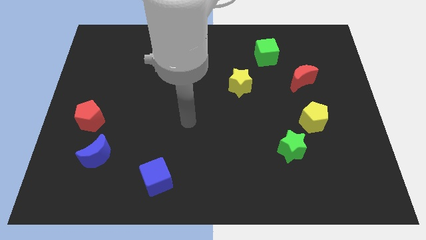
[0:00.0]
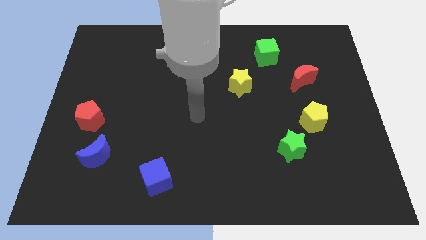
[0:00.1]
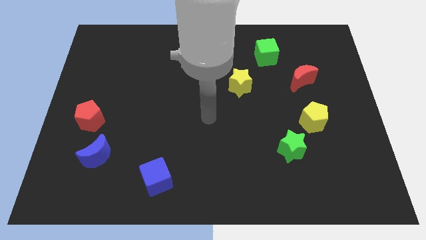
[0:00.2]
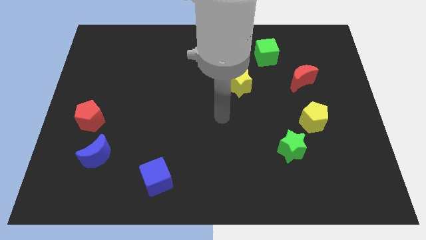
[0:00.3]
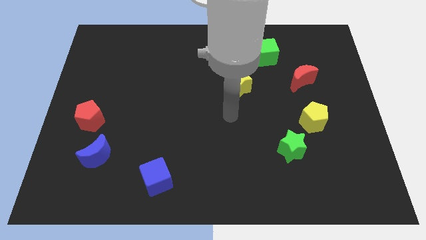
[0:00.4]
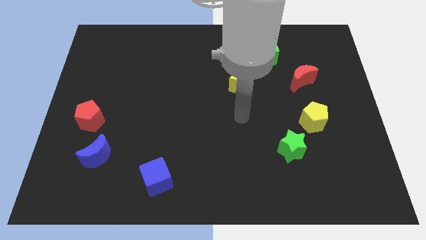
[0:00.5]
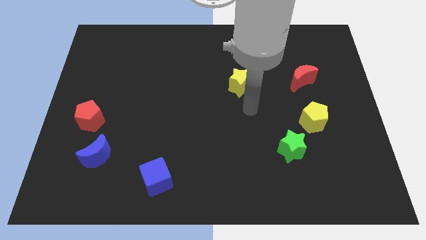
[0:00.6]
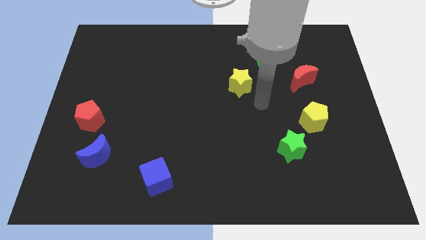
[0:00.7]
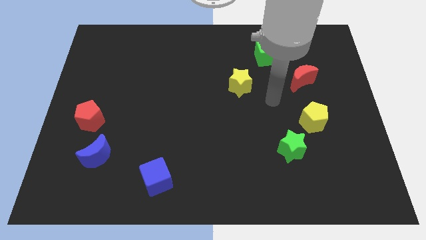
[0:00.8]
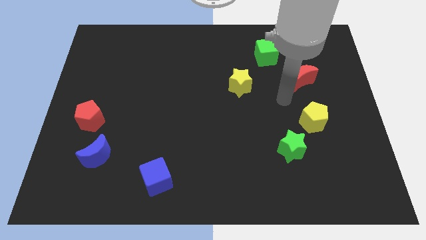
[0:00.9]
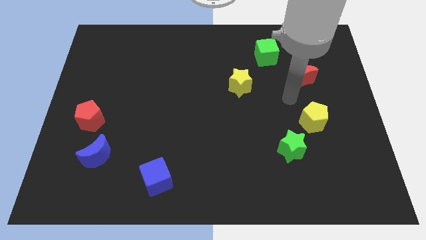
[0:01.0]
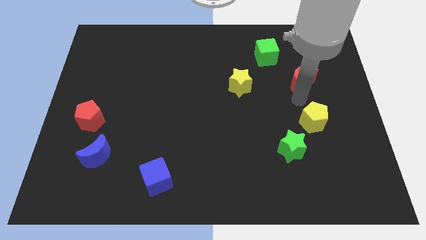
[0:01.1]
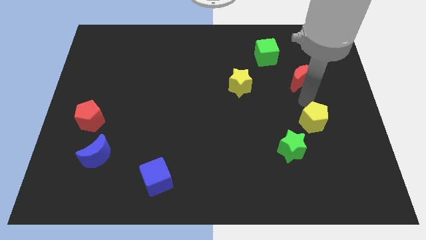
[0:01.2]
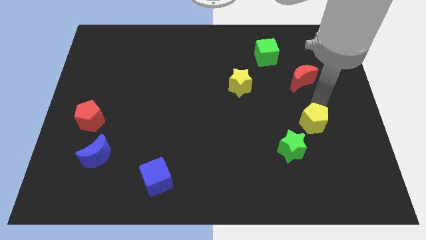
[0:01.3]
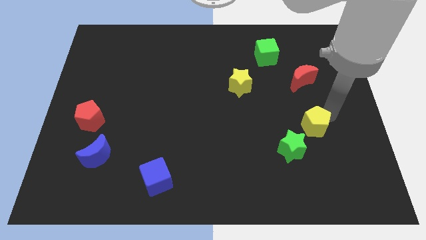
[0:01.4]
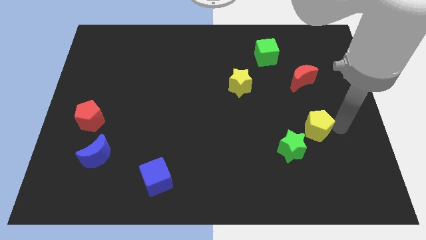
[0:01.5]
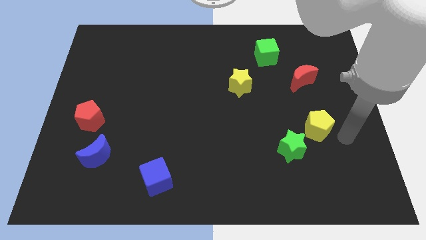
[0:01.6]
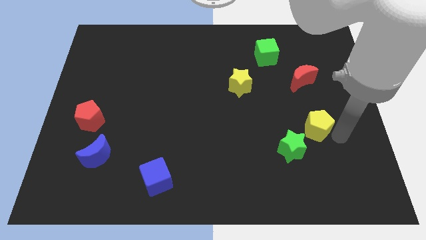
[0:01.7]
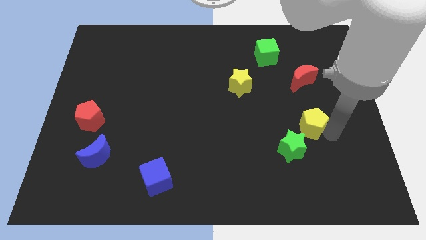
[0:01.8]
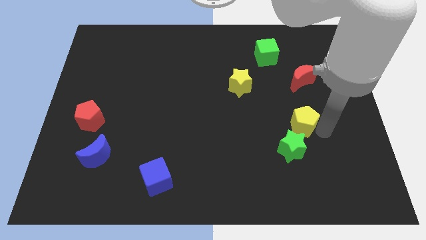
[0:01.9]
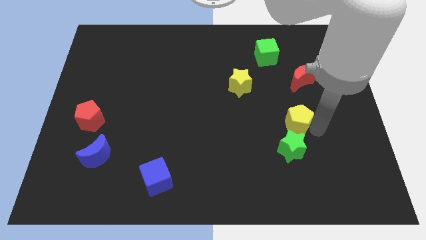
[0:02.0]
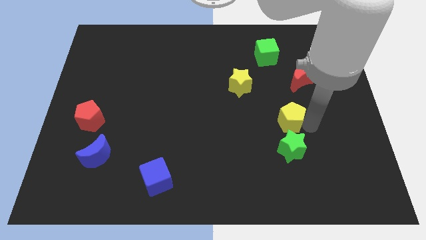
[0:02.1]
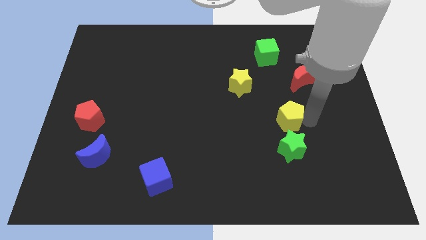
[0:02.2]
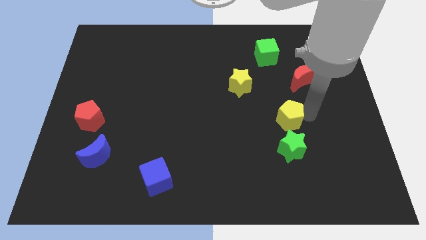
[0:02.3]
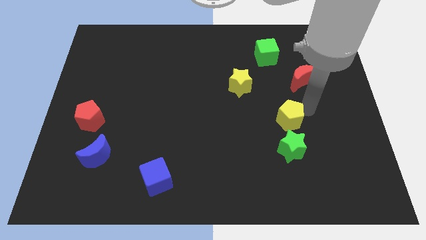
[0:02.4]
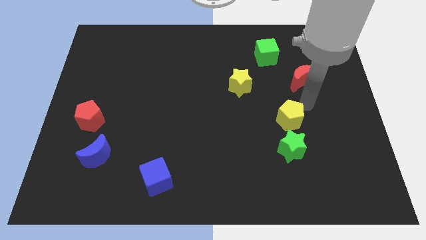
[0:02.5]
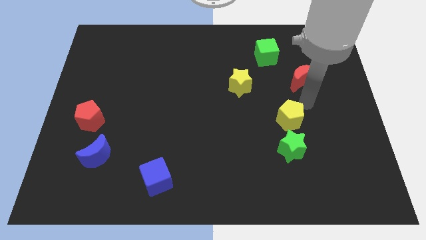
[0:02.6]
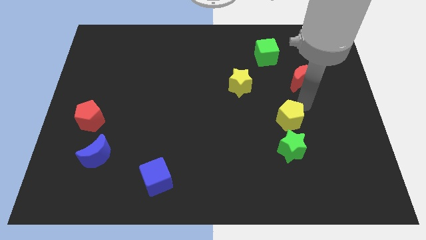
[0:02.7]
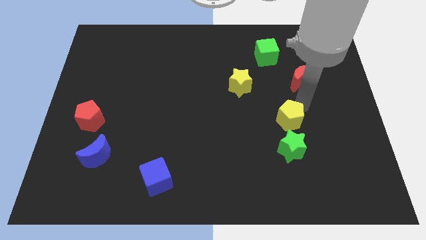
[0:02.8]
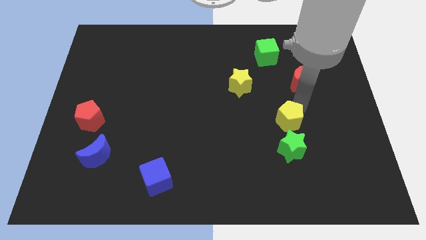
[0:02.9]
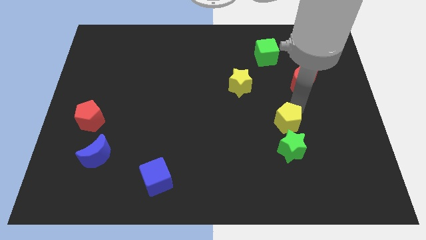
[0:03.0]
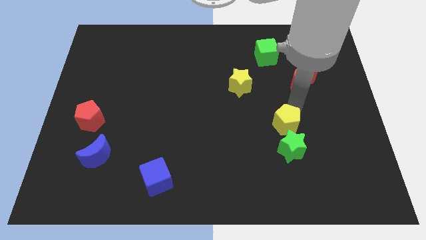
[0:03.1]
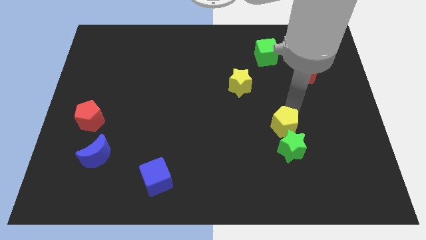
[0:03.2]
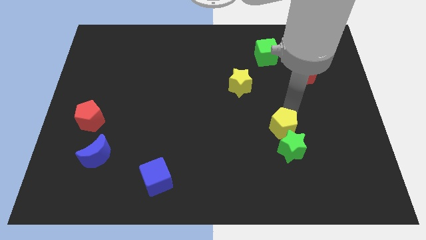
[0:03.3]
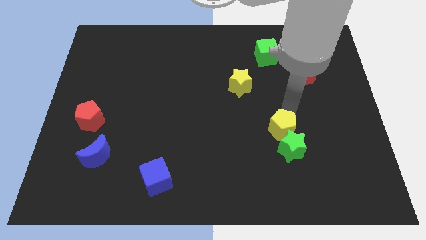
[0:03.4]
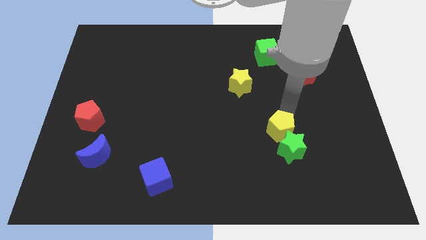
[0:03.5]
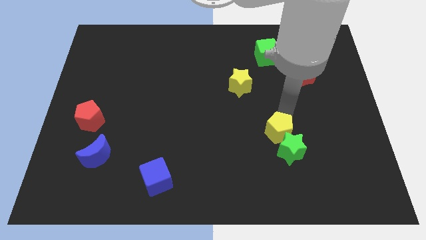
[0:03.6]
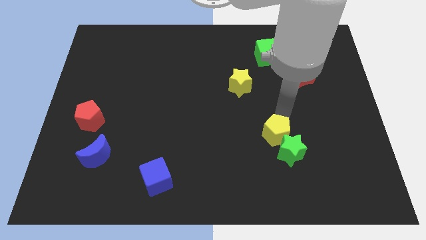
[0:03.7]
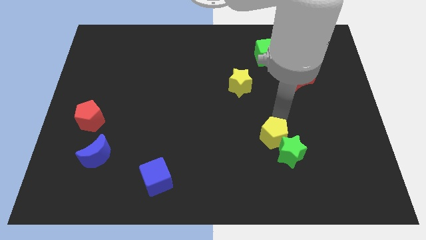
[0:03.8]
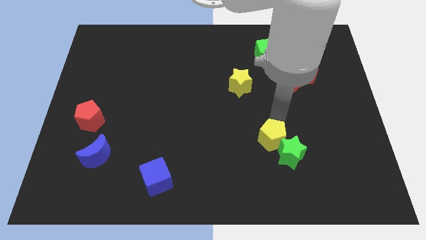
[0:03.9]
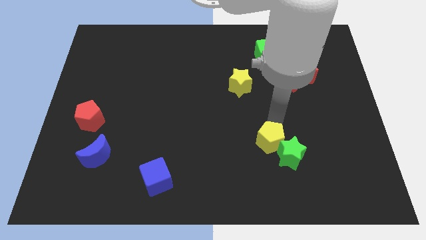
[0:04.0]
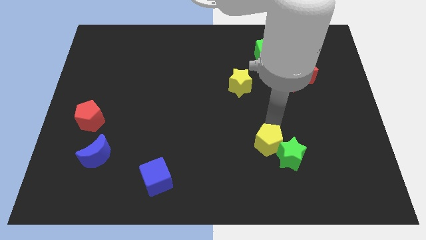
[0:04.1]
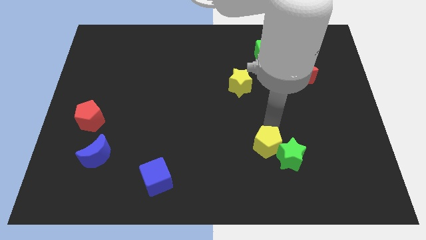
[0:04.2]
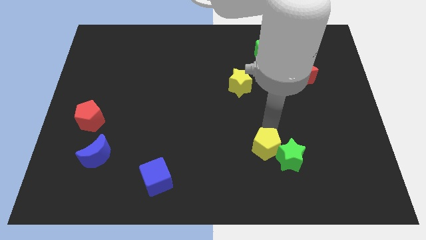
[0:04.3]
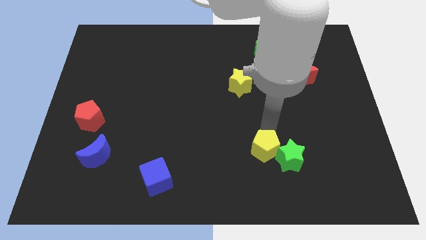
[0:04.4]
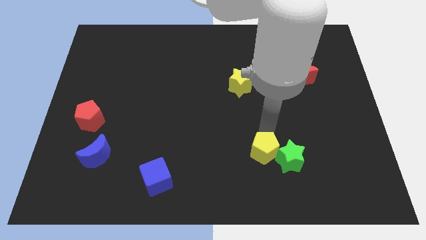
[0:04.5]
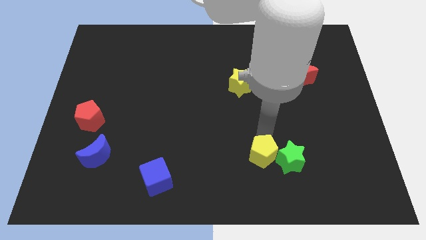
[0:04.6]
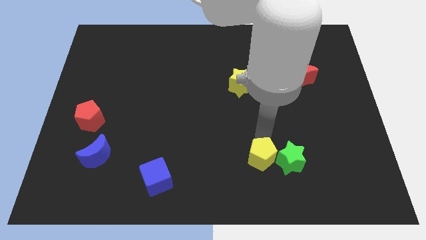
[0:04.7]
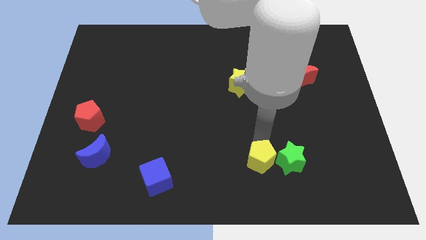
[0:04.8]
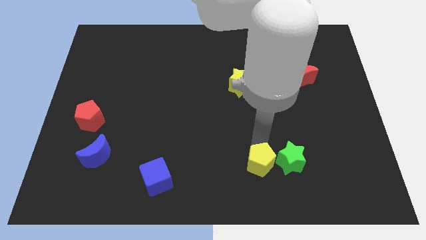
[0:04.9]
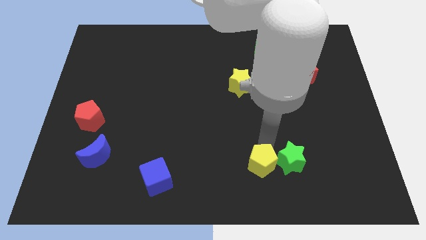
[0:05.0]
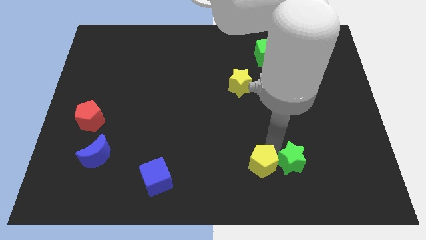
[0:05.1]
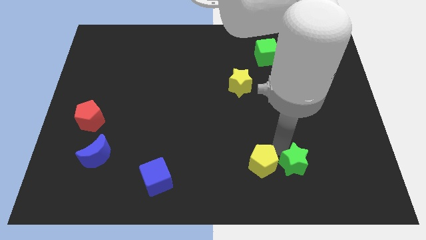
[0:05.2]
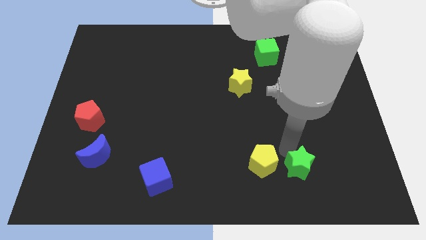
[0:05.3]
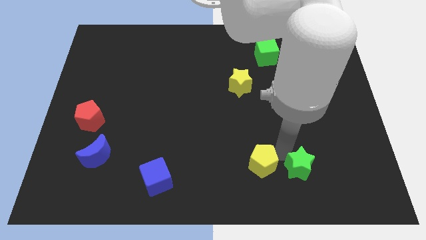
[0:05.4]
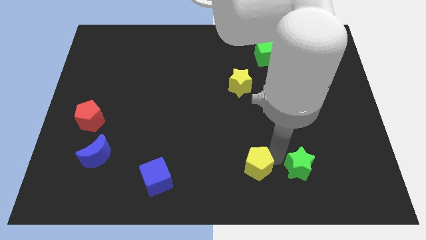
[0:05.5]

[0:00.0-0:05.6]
slide the yellow pentagon to the bottom
